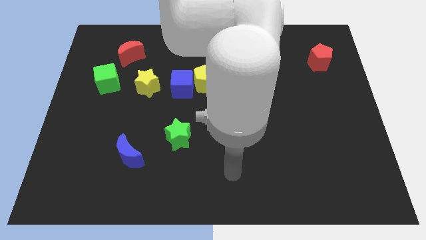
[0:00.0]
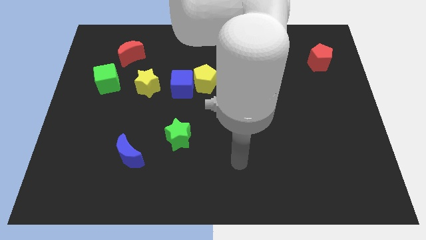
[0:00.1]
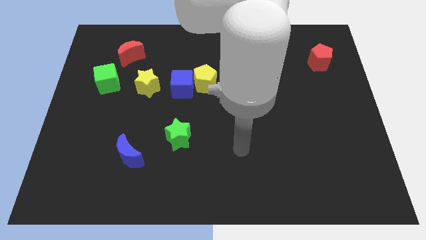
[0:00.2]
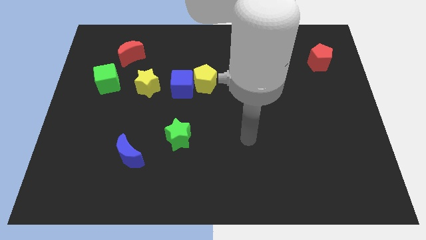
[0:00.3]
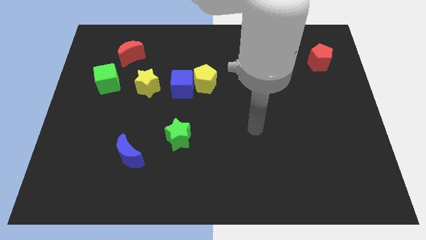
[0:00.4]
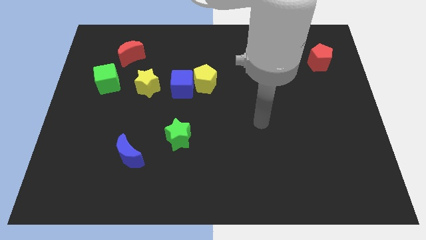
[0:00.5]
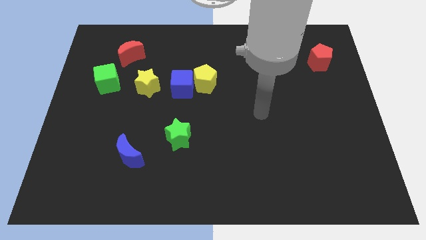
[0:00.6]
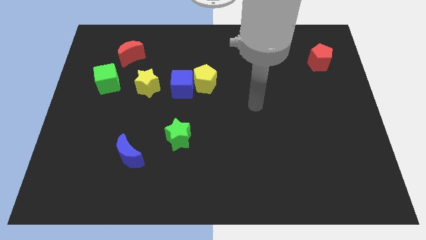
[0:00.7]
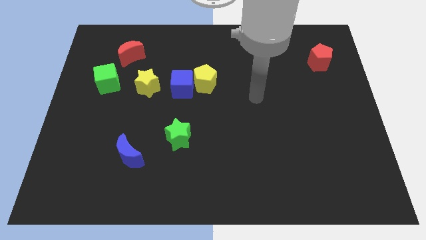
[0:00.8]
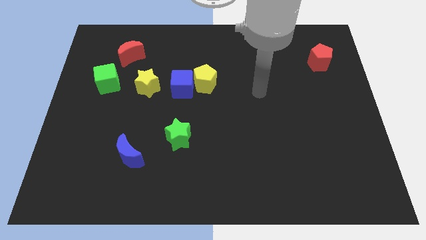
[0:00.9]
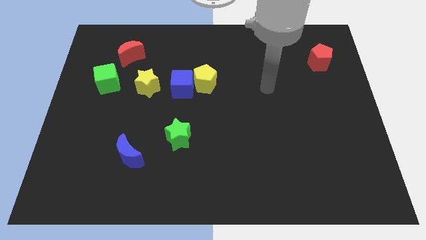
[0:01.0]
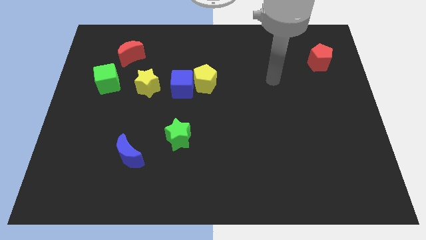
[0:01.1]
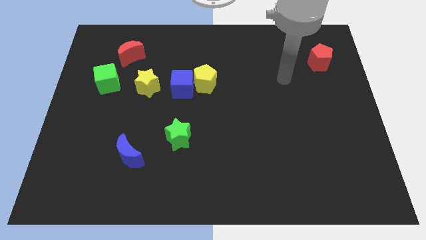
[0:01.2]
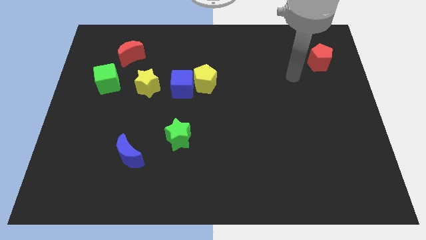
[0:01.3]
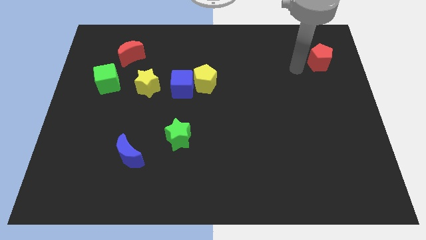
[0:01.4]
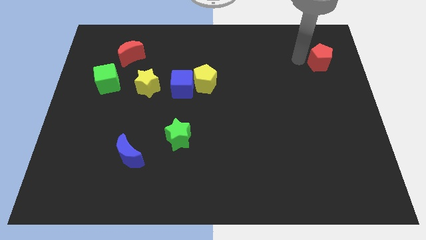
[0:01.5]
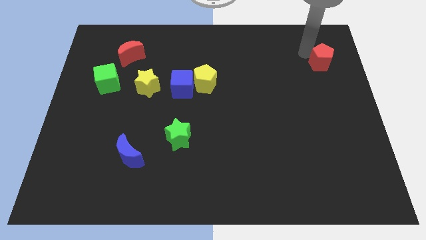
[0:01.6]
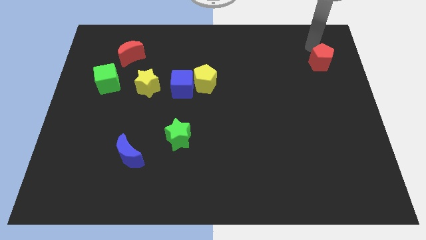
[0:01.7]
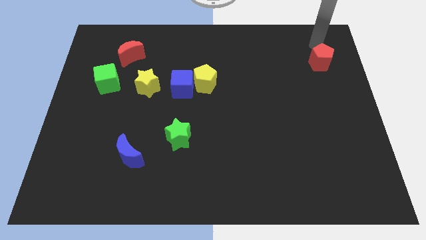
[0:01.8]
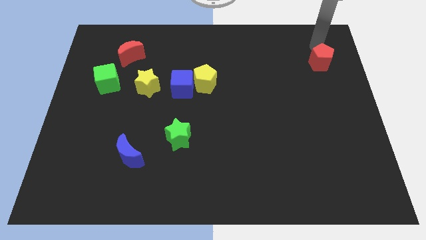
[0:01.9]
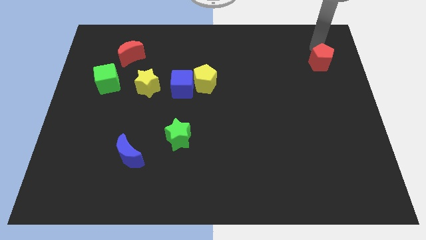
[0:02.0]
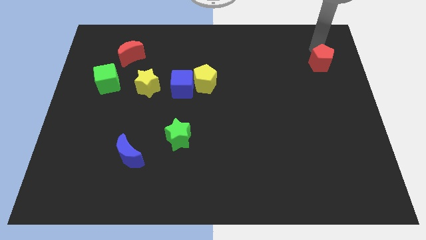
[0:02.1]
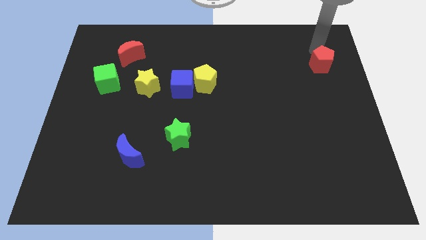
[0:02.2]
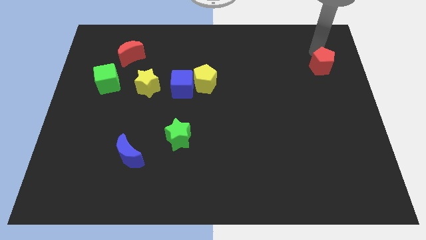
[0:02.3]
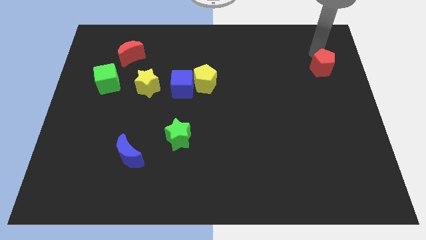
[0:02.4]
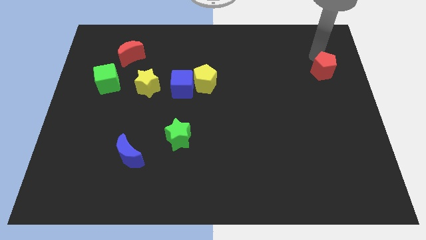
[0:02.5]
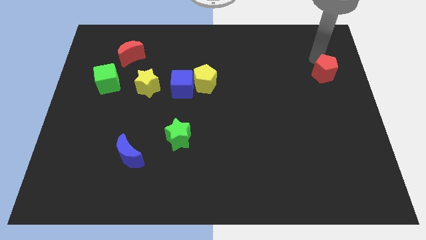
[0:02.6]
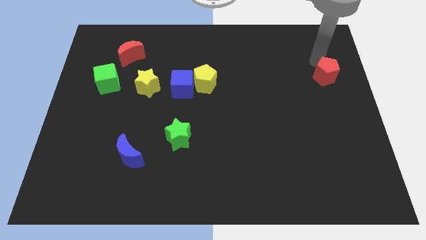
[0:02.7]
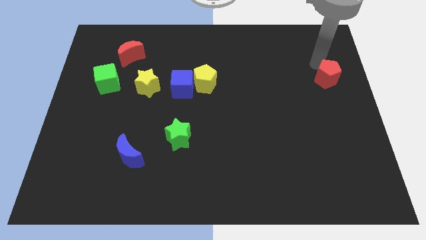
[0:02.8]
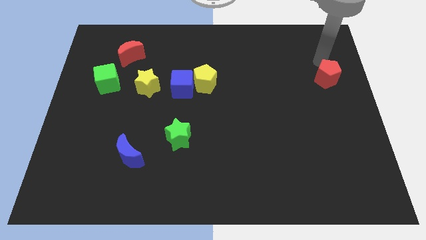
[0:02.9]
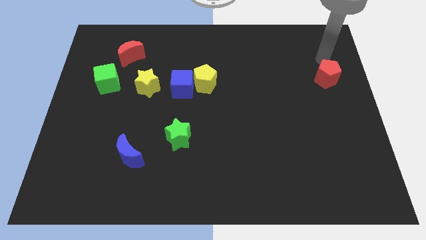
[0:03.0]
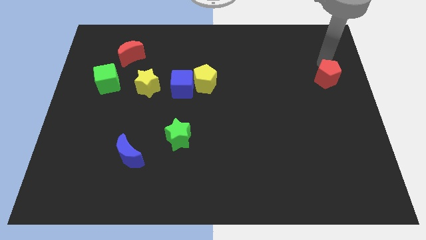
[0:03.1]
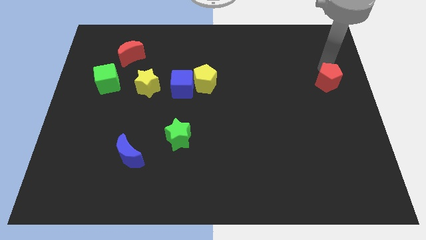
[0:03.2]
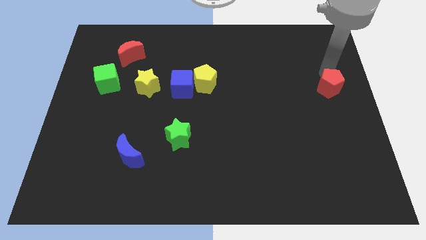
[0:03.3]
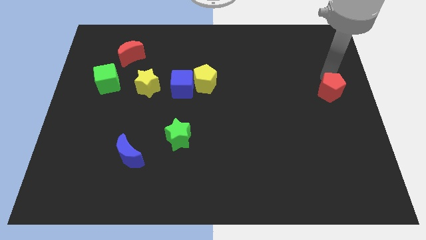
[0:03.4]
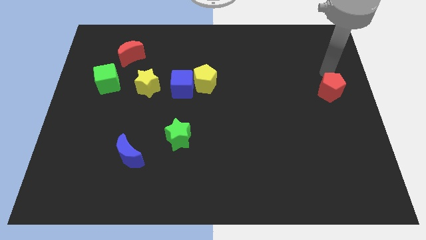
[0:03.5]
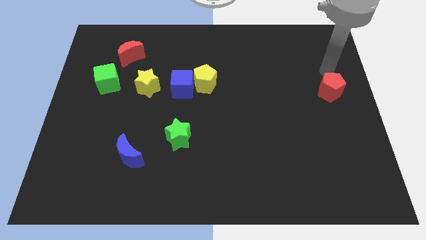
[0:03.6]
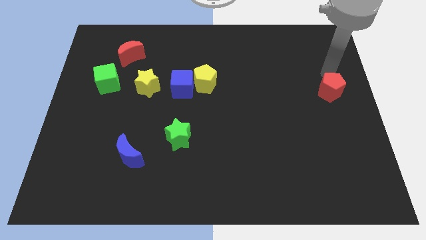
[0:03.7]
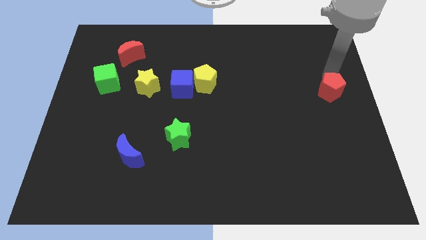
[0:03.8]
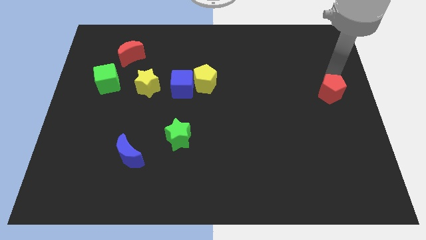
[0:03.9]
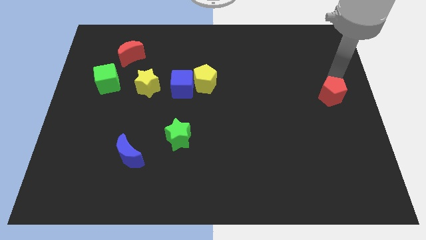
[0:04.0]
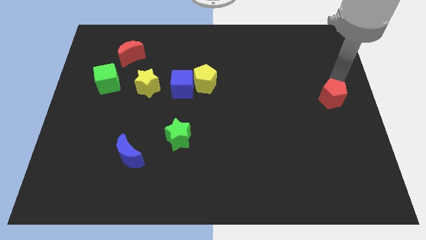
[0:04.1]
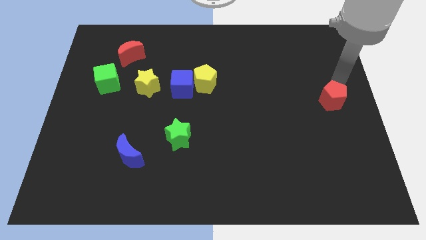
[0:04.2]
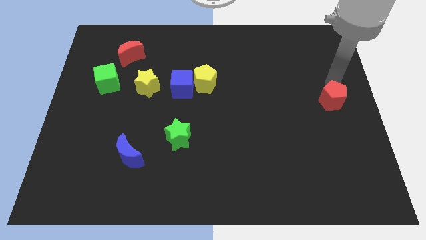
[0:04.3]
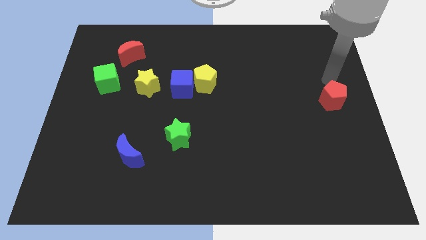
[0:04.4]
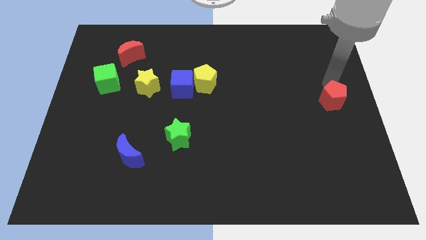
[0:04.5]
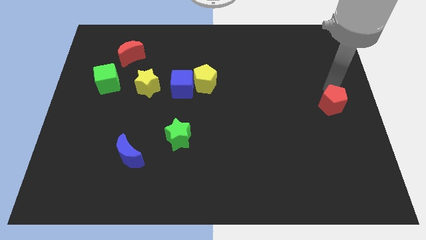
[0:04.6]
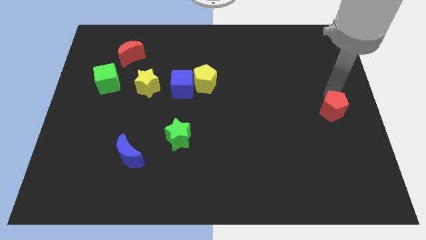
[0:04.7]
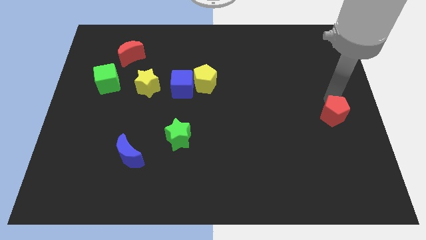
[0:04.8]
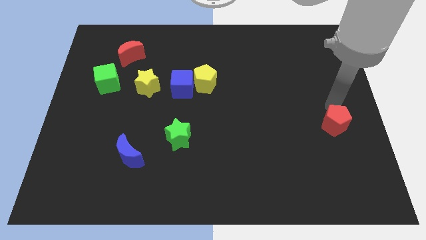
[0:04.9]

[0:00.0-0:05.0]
slide the red pentagon down

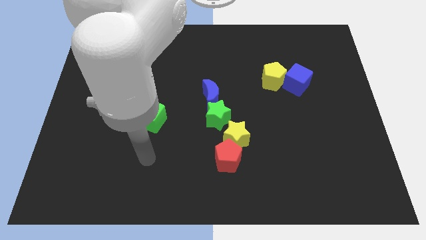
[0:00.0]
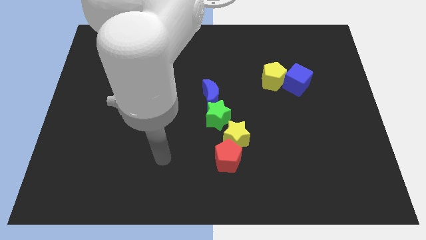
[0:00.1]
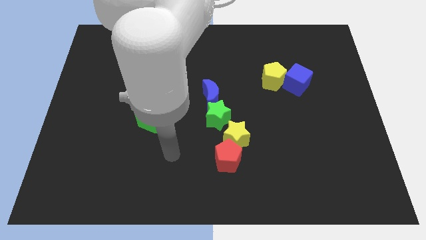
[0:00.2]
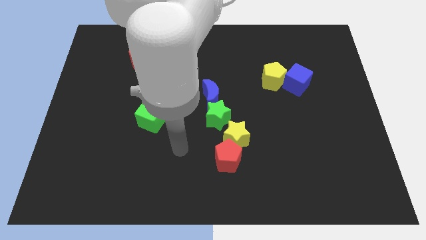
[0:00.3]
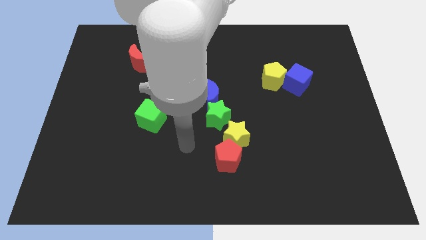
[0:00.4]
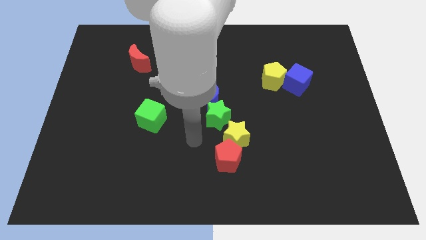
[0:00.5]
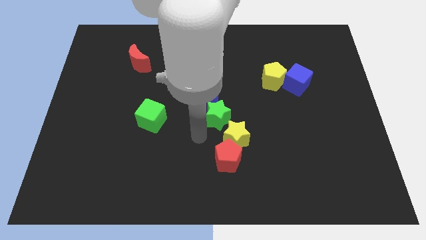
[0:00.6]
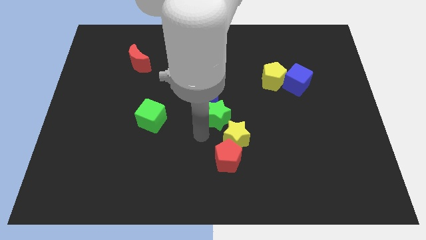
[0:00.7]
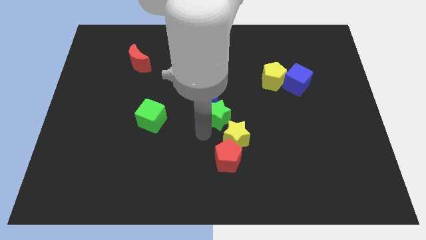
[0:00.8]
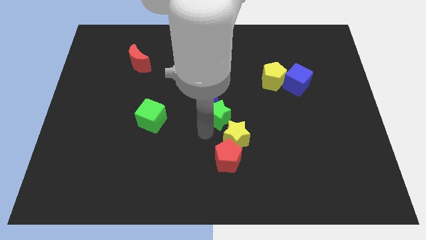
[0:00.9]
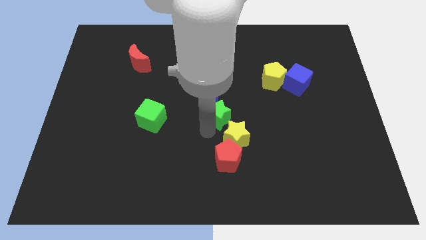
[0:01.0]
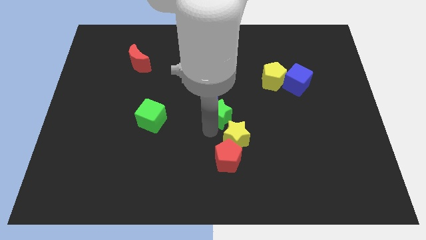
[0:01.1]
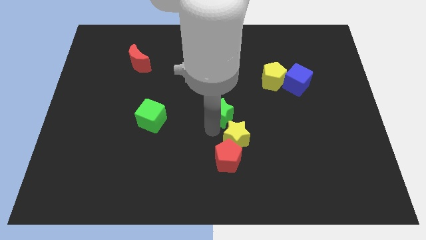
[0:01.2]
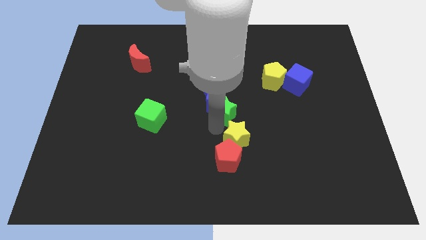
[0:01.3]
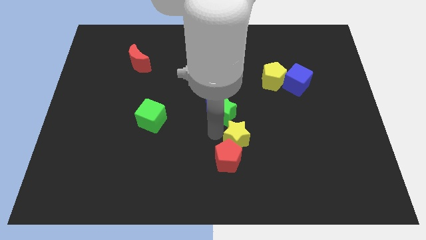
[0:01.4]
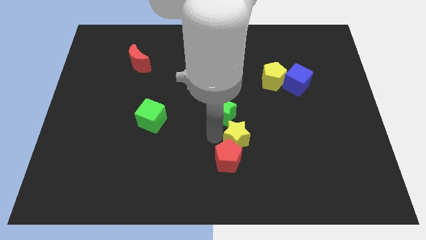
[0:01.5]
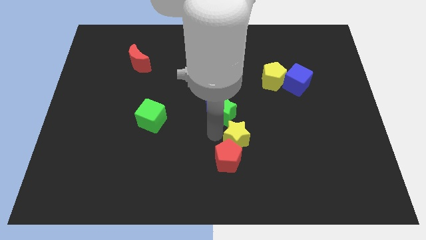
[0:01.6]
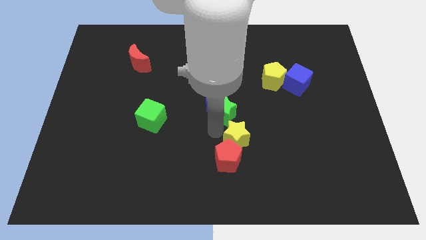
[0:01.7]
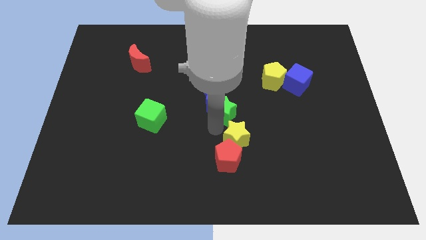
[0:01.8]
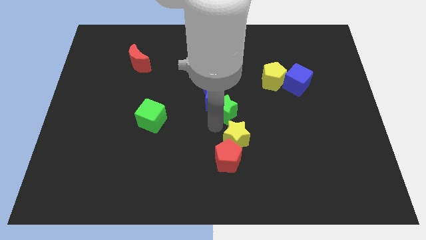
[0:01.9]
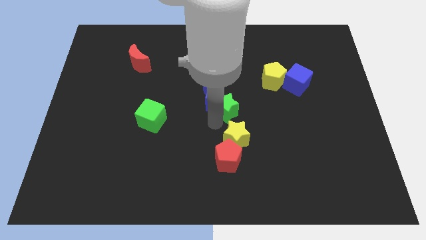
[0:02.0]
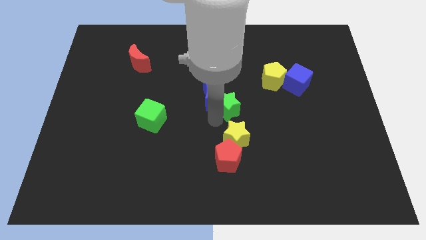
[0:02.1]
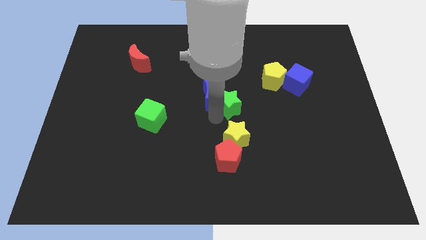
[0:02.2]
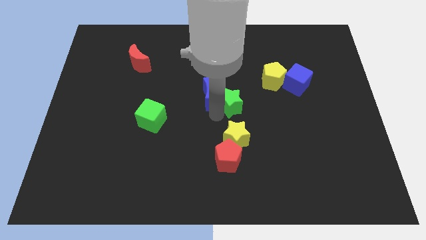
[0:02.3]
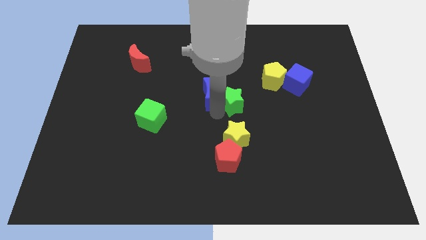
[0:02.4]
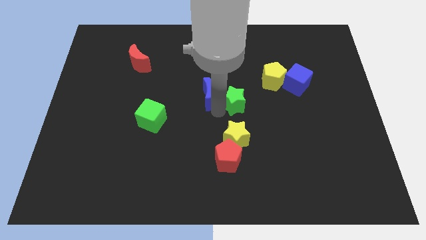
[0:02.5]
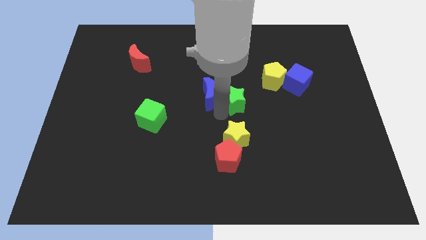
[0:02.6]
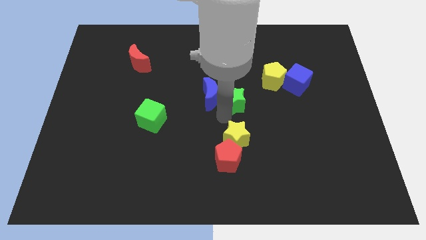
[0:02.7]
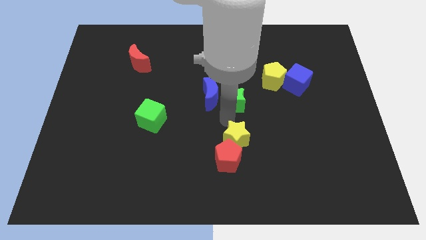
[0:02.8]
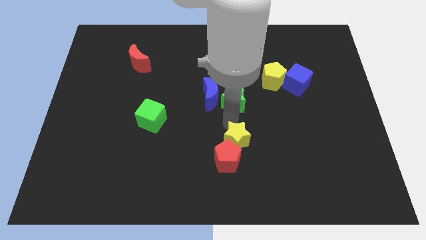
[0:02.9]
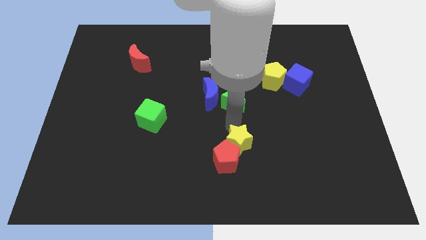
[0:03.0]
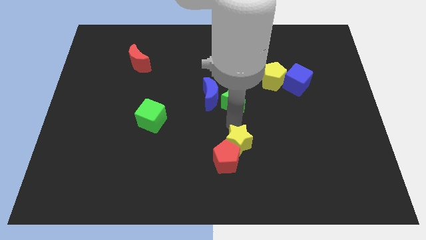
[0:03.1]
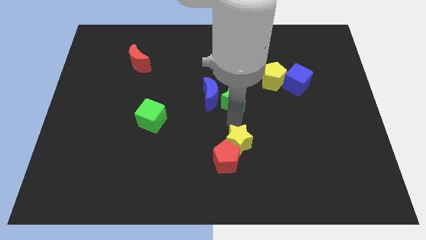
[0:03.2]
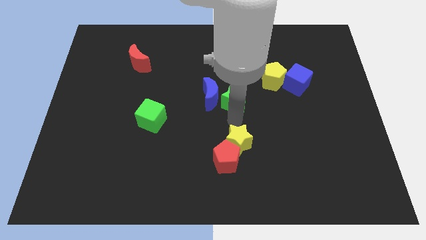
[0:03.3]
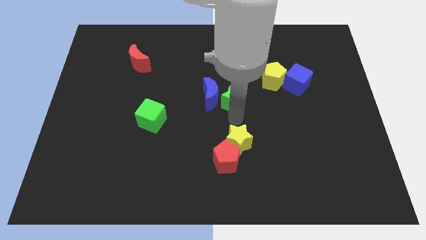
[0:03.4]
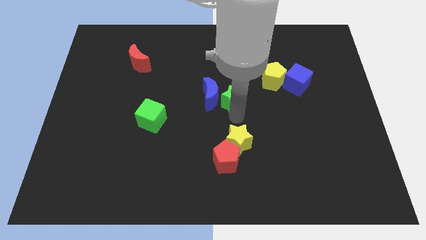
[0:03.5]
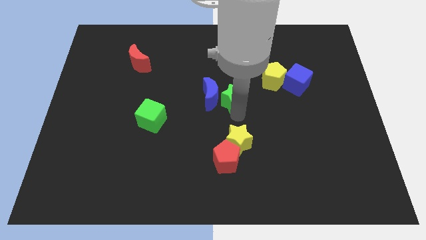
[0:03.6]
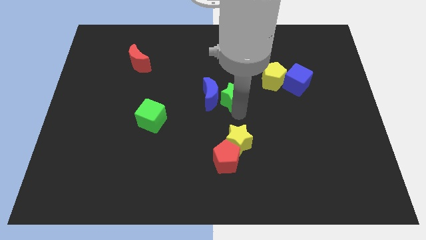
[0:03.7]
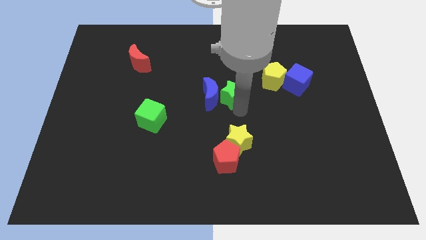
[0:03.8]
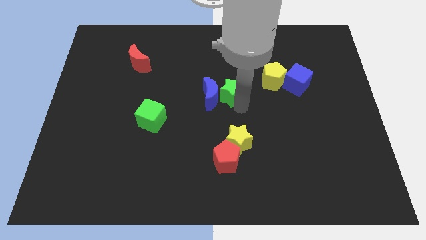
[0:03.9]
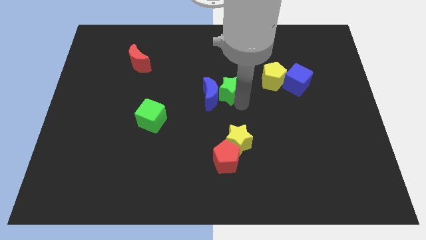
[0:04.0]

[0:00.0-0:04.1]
move the green star somewhat upwards
